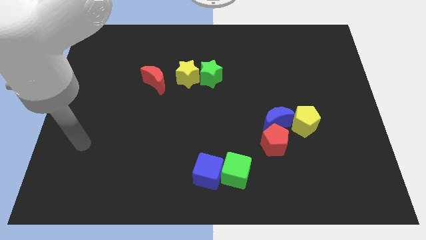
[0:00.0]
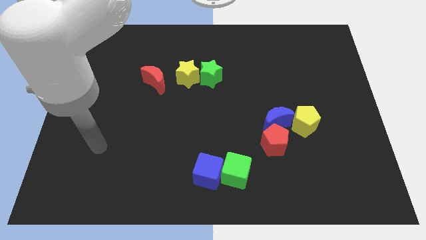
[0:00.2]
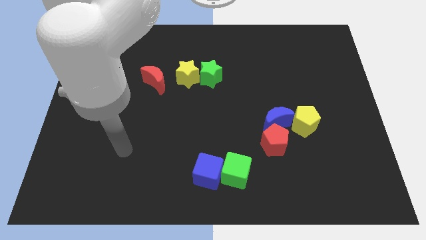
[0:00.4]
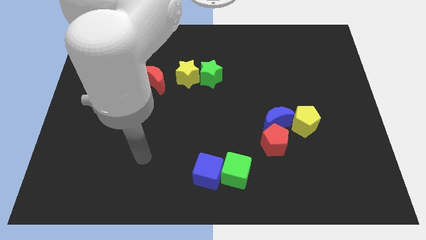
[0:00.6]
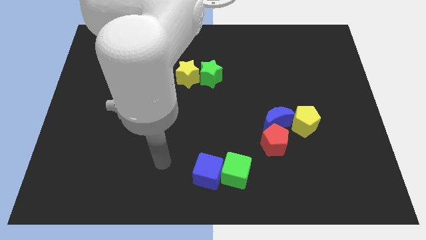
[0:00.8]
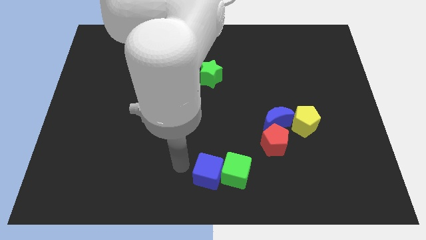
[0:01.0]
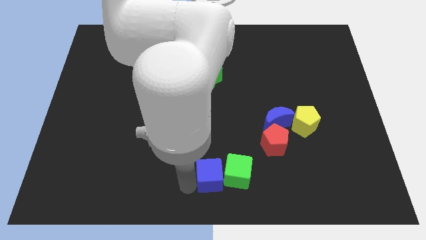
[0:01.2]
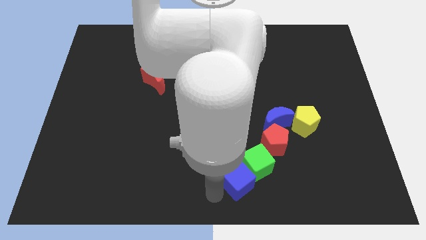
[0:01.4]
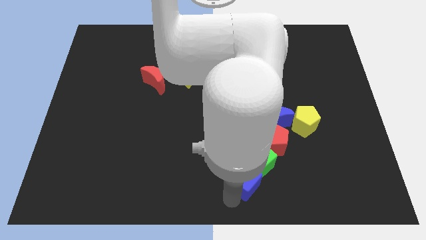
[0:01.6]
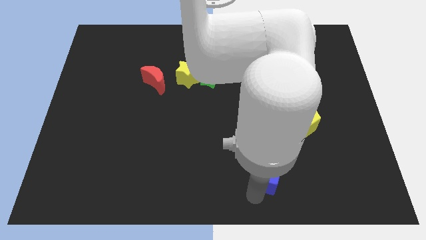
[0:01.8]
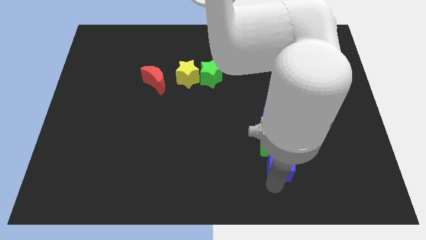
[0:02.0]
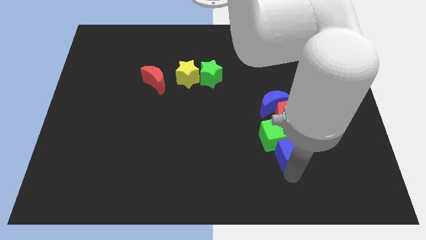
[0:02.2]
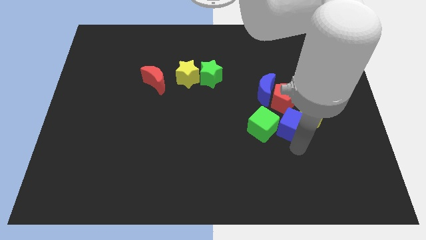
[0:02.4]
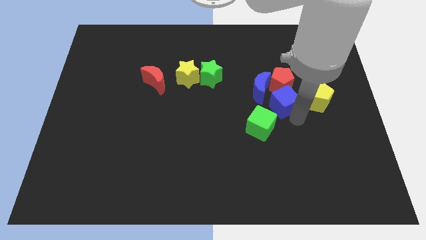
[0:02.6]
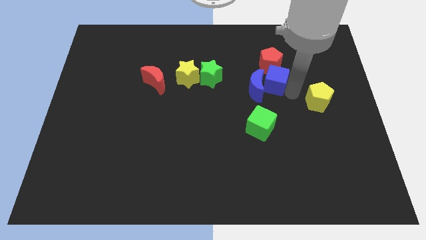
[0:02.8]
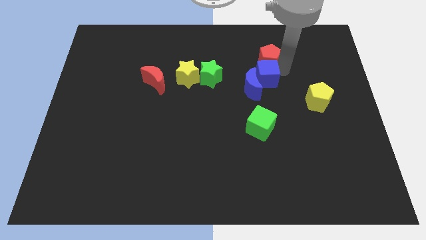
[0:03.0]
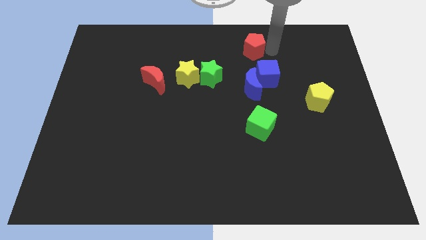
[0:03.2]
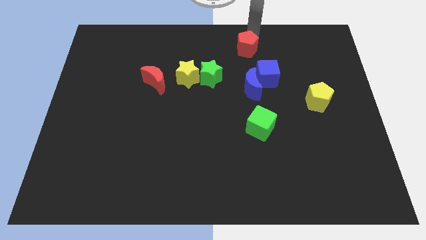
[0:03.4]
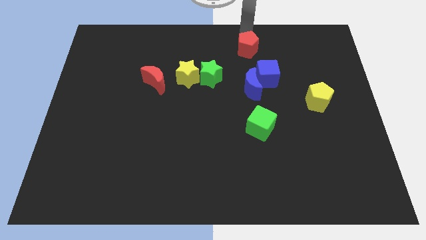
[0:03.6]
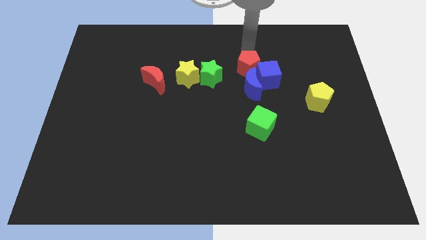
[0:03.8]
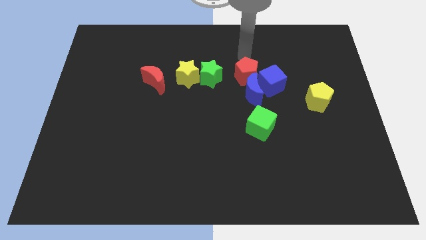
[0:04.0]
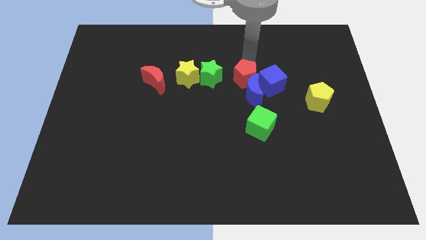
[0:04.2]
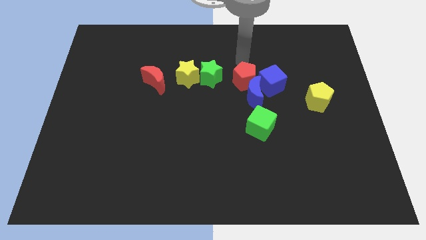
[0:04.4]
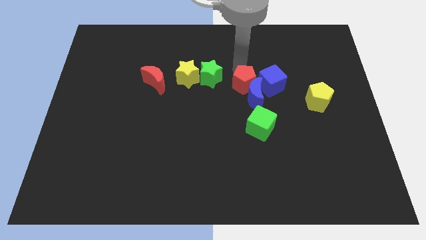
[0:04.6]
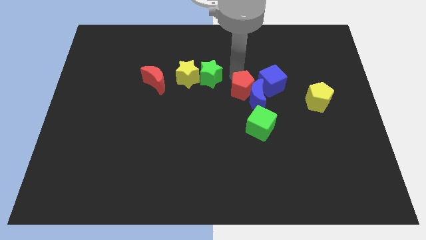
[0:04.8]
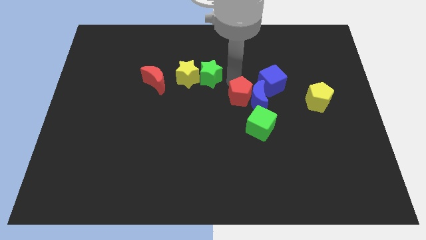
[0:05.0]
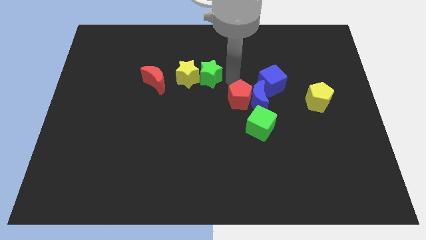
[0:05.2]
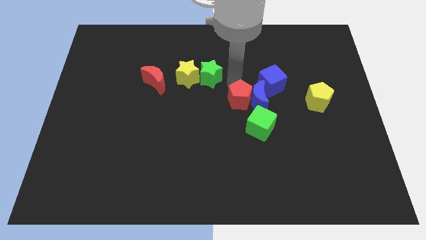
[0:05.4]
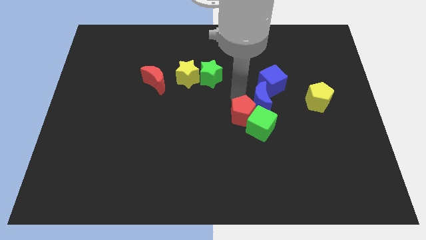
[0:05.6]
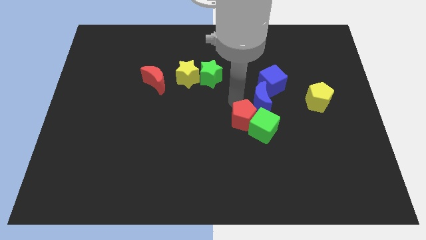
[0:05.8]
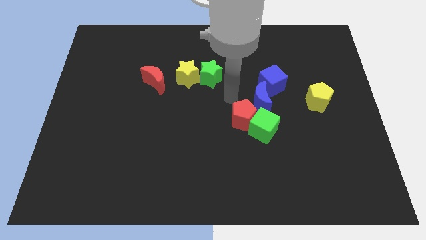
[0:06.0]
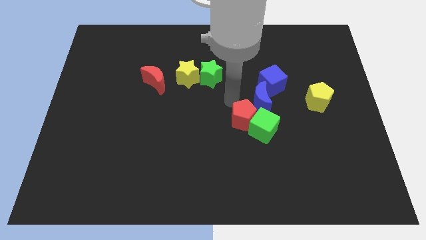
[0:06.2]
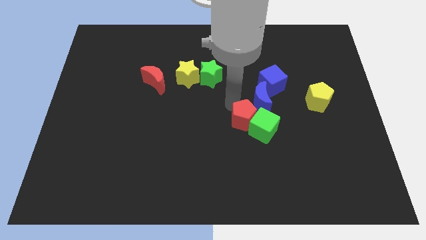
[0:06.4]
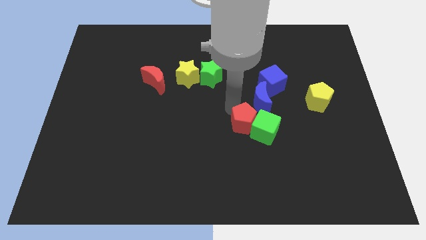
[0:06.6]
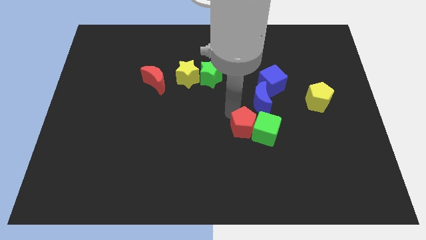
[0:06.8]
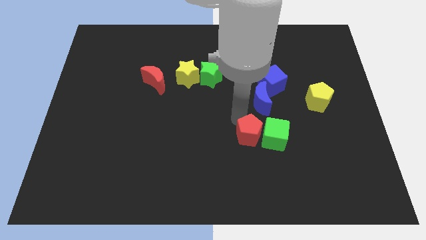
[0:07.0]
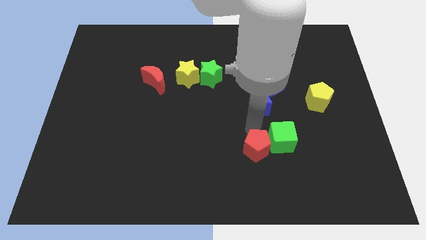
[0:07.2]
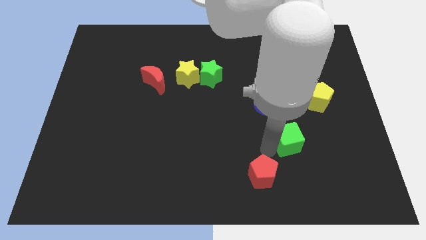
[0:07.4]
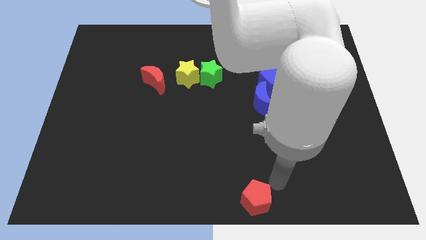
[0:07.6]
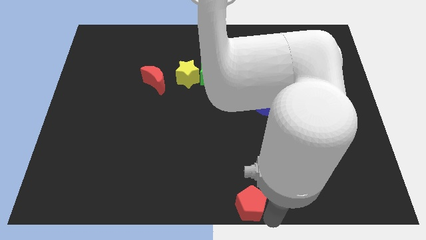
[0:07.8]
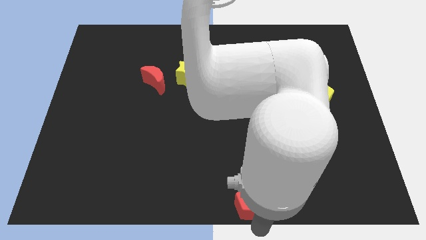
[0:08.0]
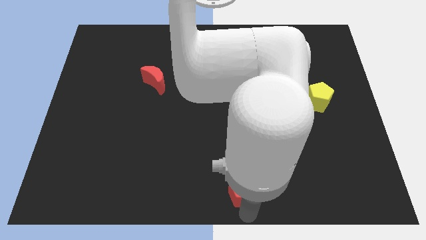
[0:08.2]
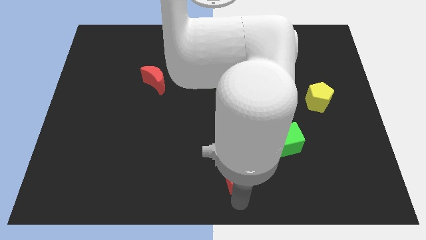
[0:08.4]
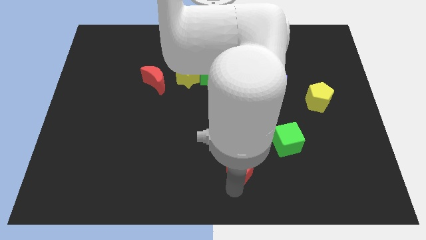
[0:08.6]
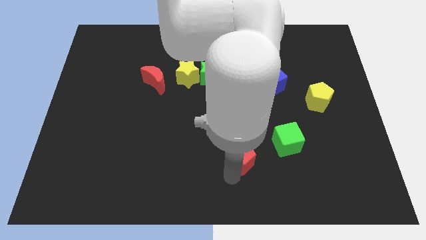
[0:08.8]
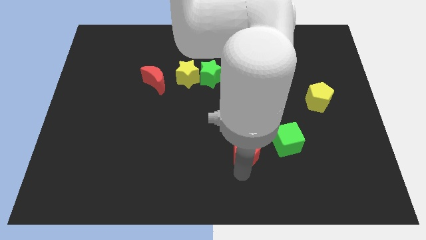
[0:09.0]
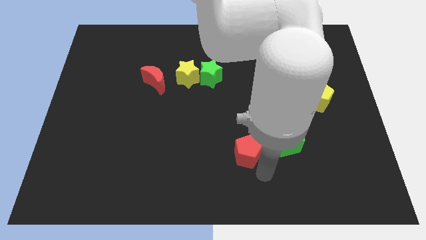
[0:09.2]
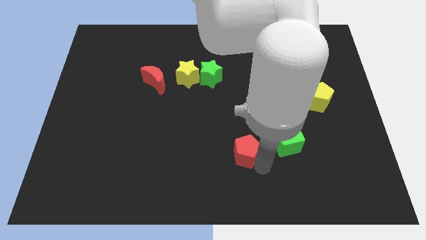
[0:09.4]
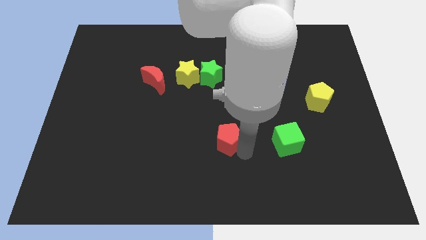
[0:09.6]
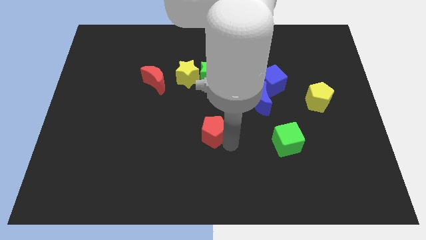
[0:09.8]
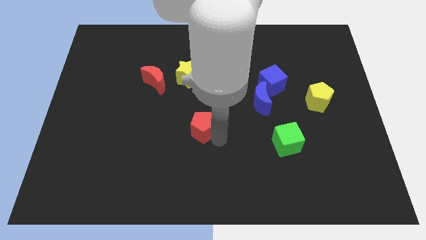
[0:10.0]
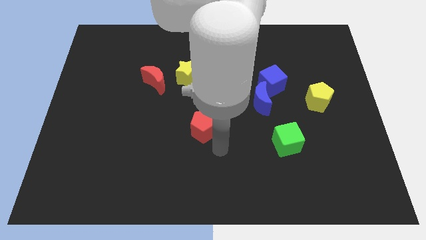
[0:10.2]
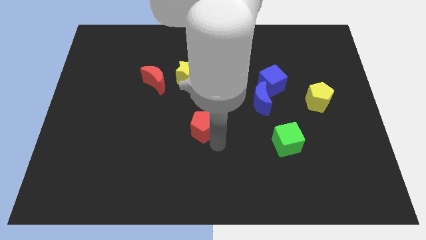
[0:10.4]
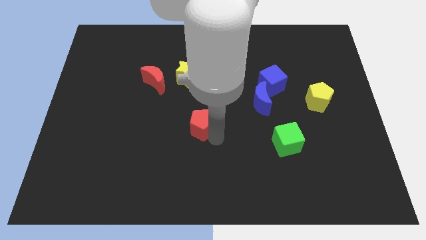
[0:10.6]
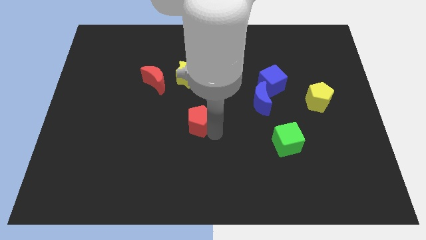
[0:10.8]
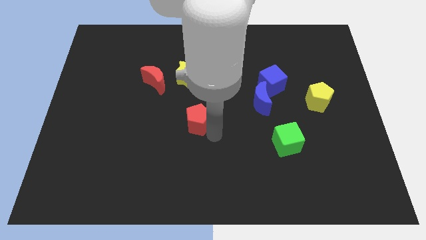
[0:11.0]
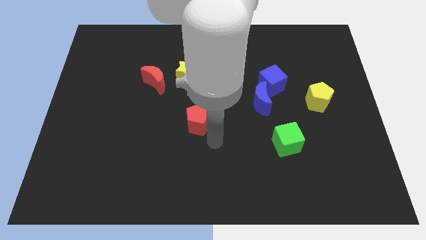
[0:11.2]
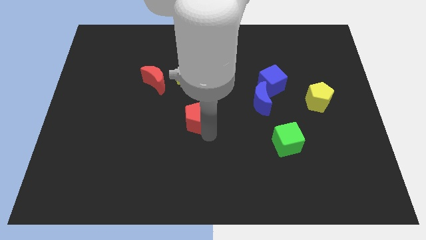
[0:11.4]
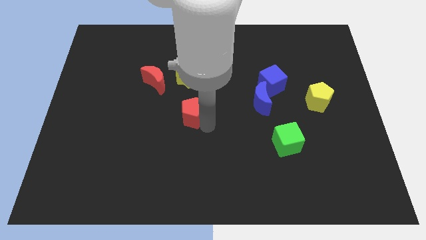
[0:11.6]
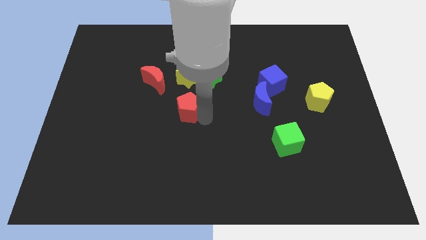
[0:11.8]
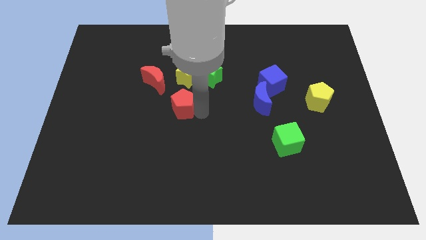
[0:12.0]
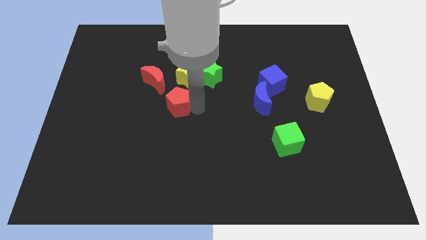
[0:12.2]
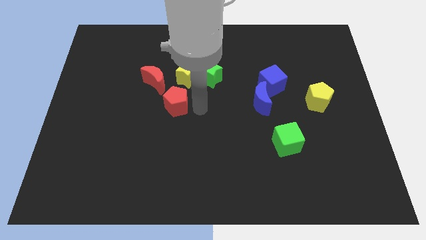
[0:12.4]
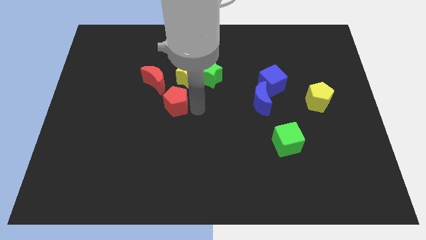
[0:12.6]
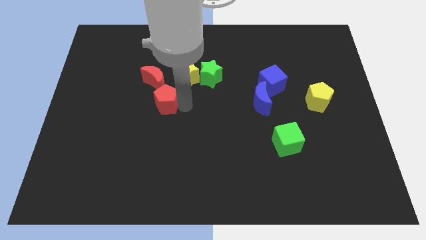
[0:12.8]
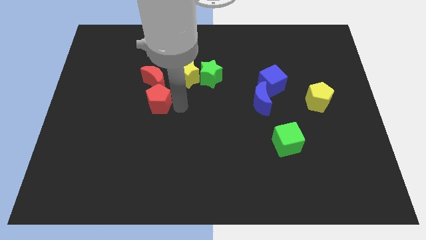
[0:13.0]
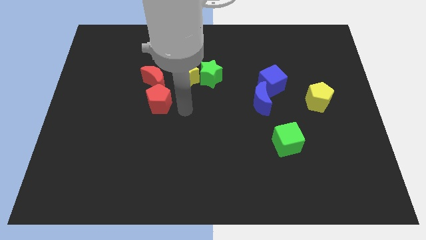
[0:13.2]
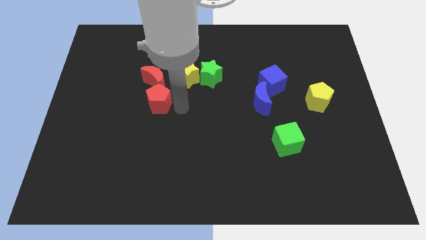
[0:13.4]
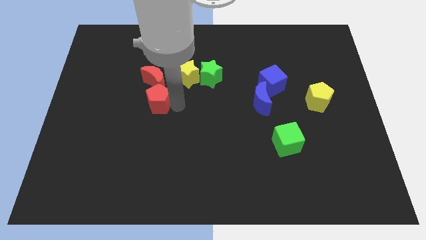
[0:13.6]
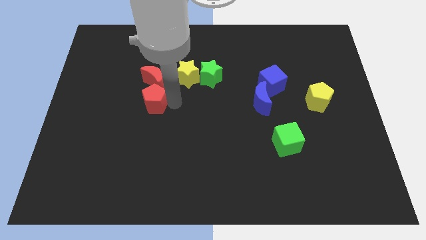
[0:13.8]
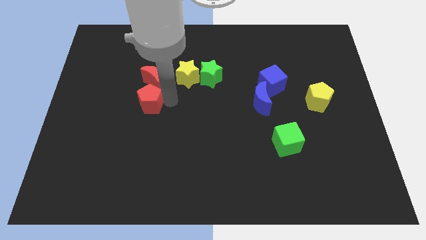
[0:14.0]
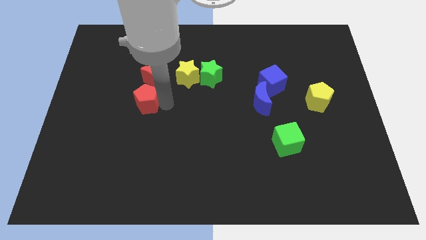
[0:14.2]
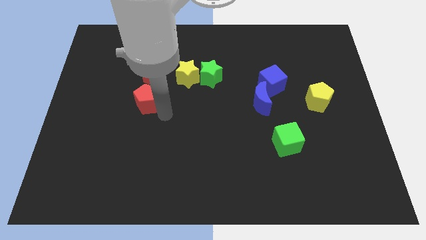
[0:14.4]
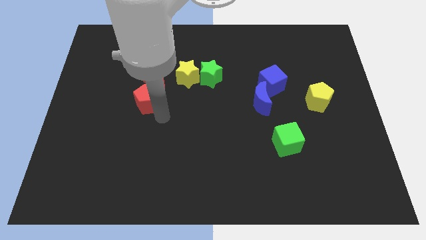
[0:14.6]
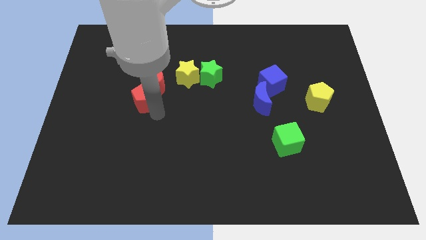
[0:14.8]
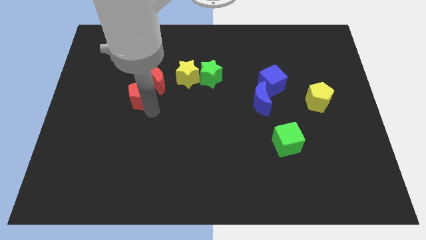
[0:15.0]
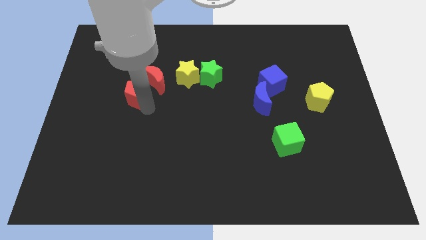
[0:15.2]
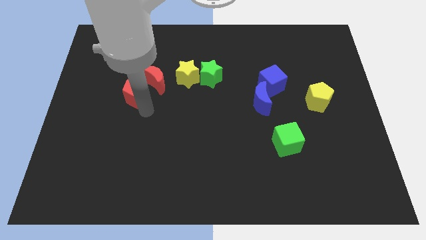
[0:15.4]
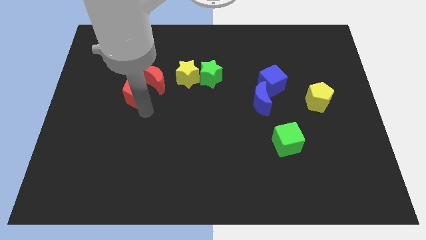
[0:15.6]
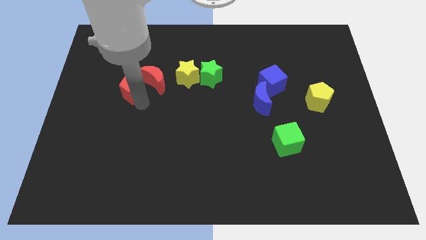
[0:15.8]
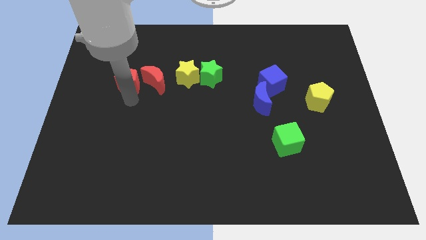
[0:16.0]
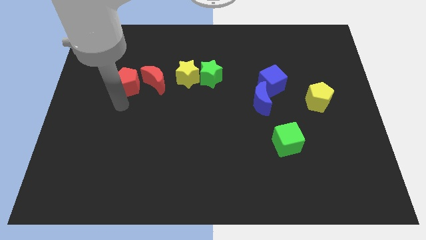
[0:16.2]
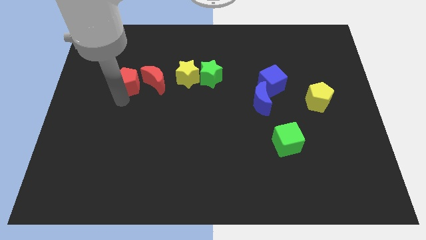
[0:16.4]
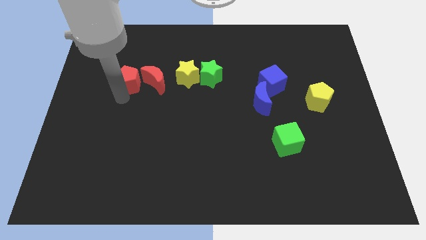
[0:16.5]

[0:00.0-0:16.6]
move the red pentagon to the top left side of the red moon
